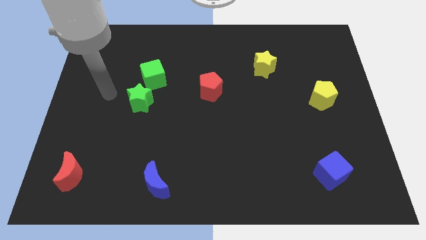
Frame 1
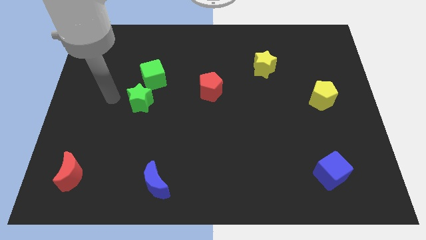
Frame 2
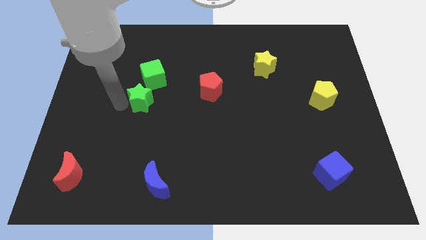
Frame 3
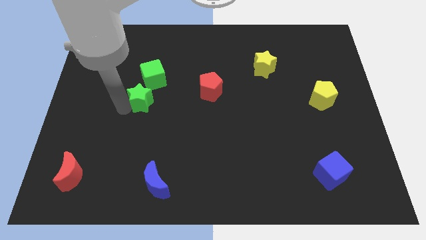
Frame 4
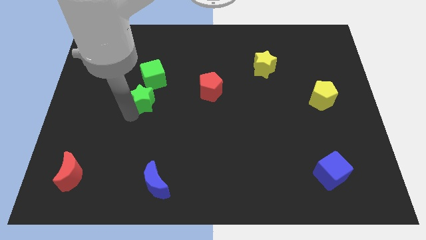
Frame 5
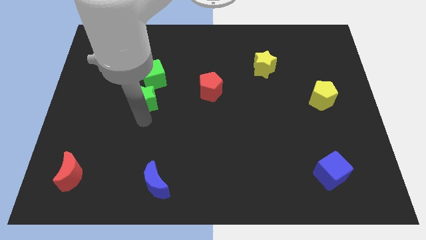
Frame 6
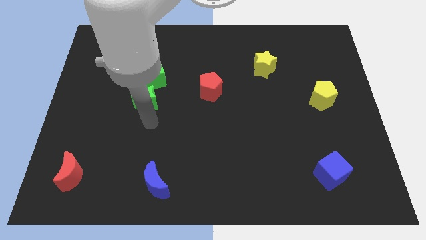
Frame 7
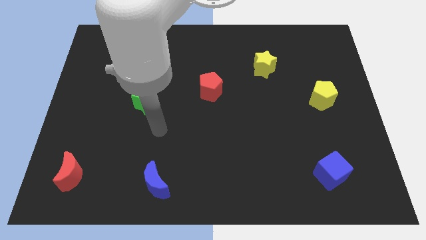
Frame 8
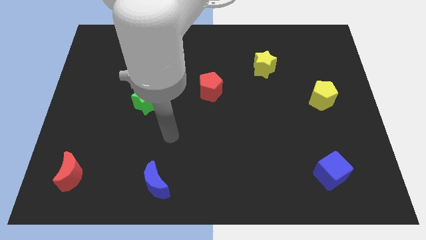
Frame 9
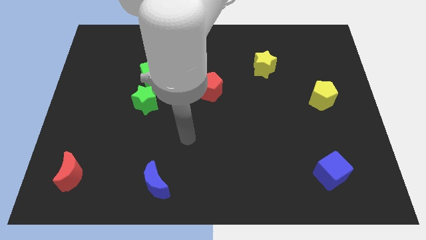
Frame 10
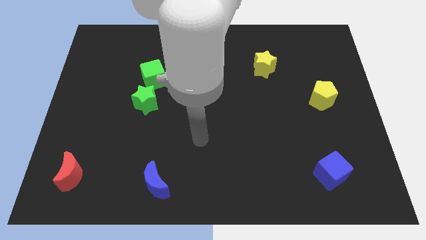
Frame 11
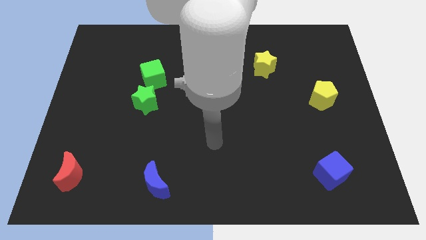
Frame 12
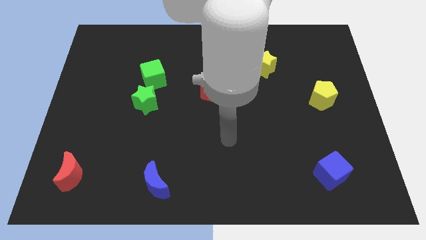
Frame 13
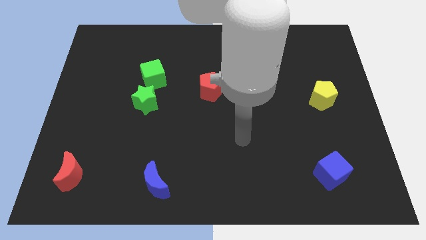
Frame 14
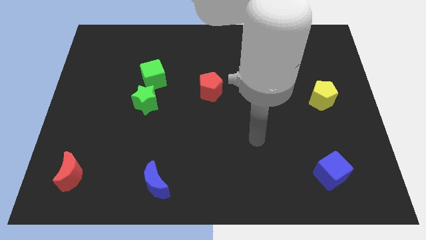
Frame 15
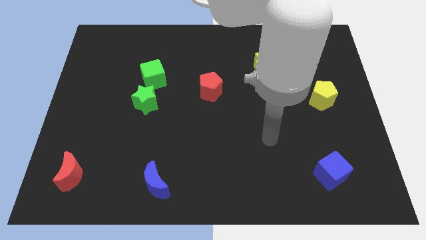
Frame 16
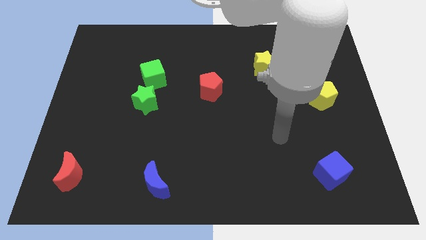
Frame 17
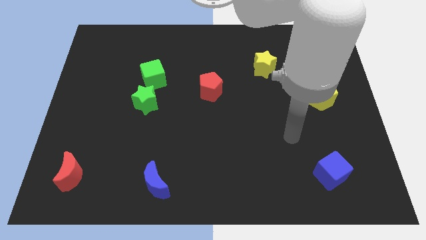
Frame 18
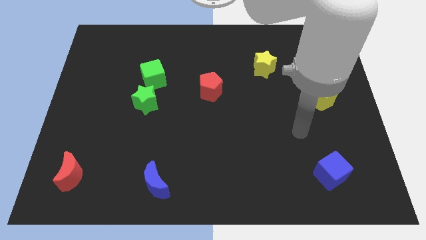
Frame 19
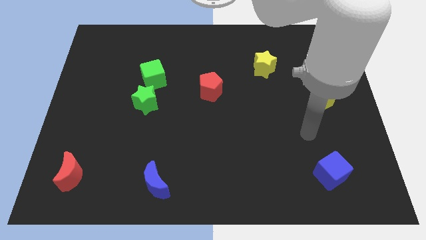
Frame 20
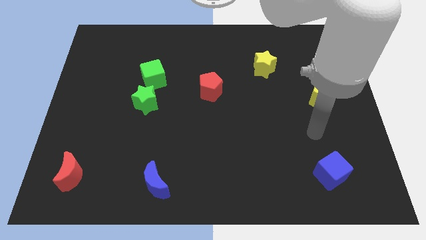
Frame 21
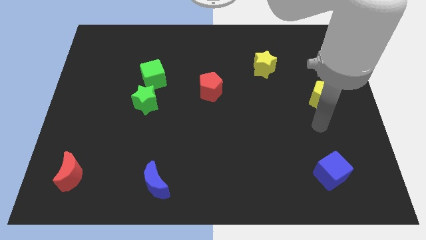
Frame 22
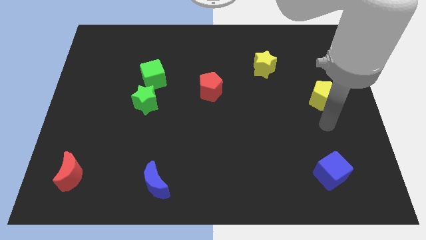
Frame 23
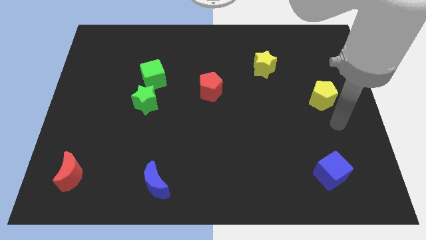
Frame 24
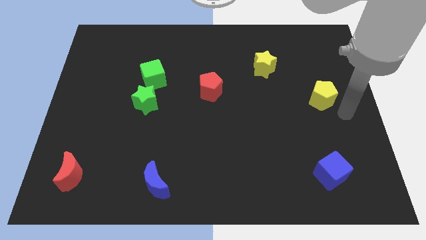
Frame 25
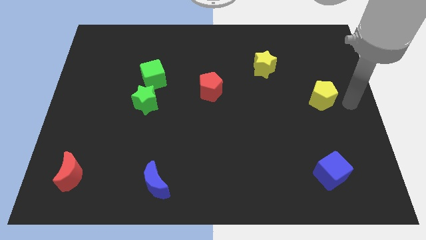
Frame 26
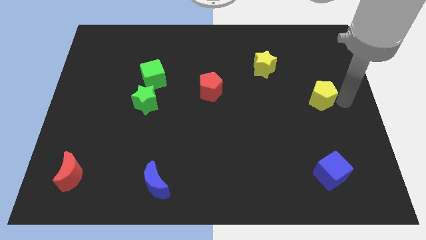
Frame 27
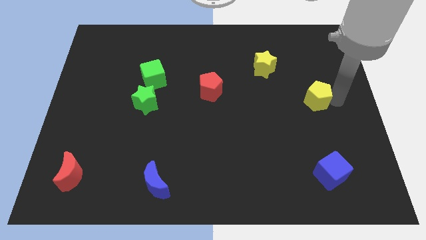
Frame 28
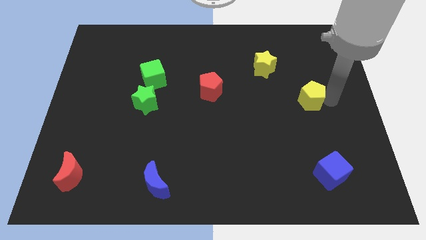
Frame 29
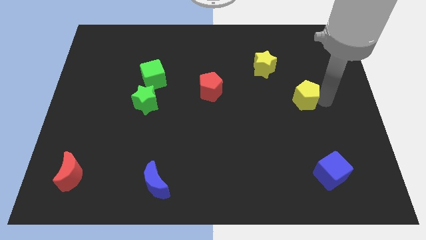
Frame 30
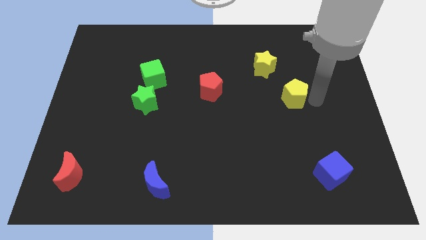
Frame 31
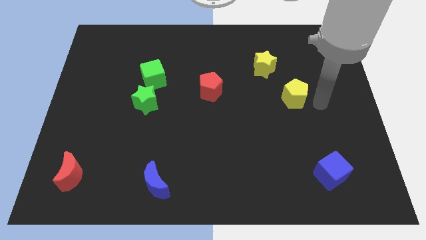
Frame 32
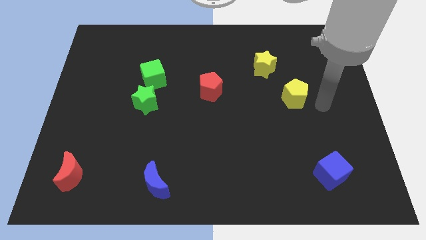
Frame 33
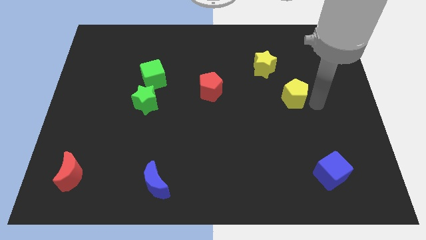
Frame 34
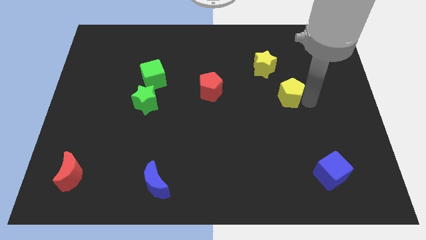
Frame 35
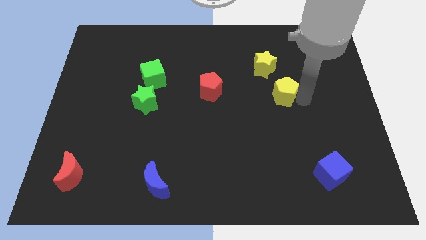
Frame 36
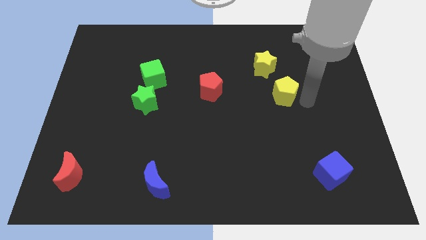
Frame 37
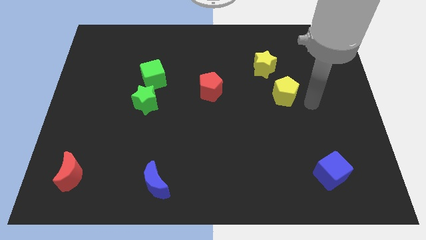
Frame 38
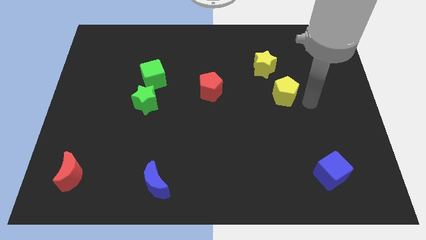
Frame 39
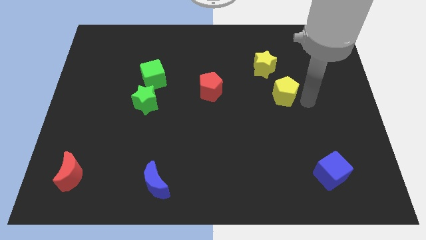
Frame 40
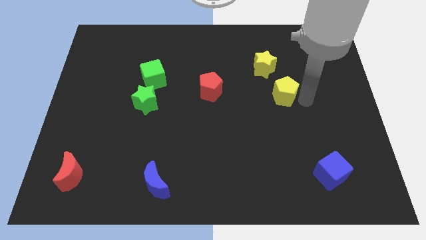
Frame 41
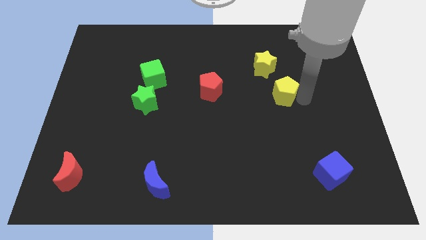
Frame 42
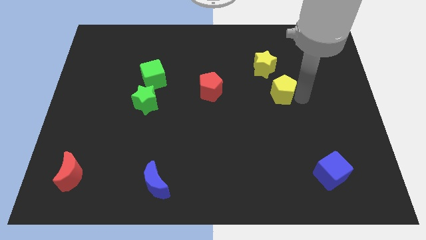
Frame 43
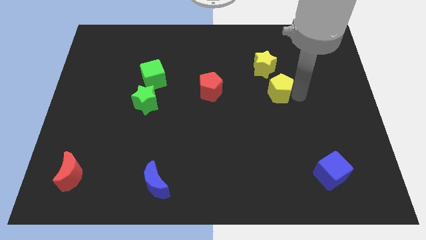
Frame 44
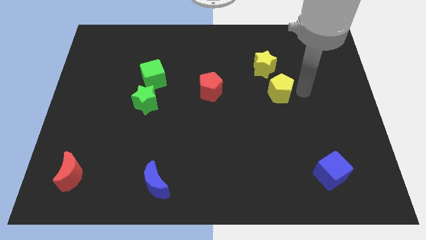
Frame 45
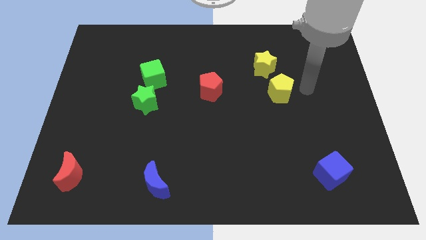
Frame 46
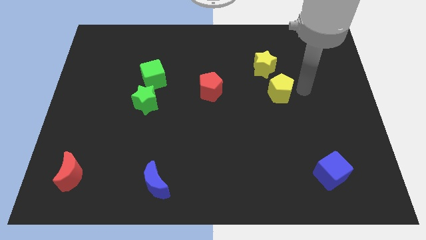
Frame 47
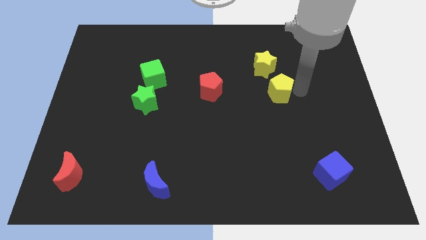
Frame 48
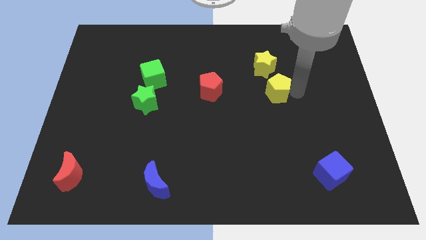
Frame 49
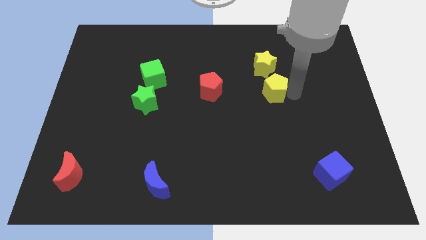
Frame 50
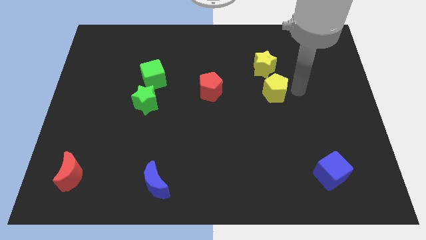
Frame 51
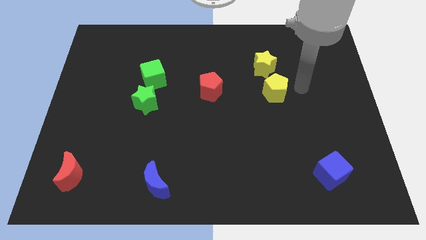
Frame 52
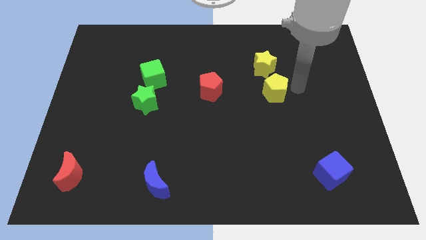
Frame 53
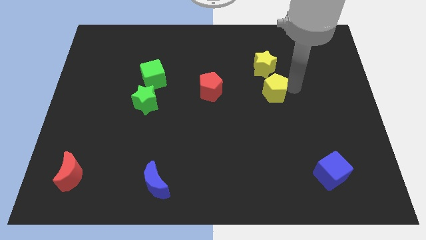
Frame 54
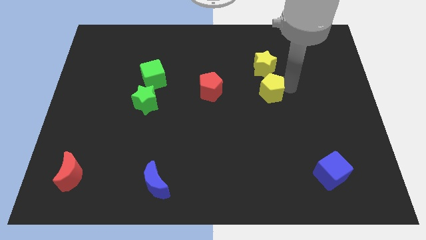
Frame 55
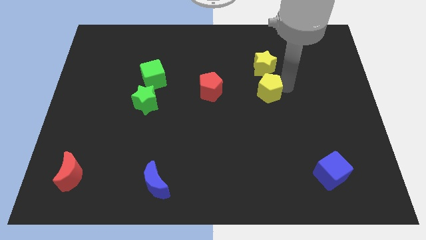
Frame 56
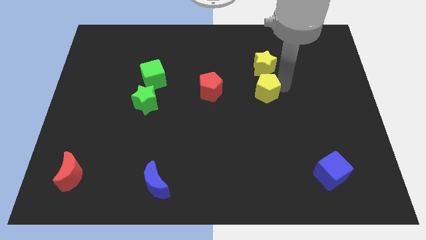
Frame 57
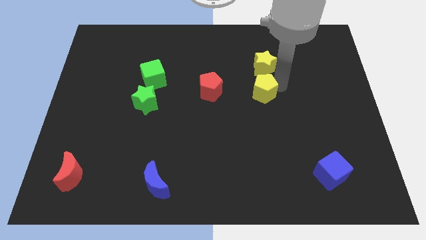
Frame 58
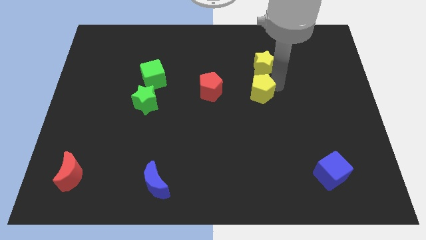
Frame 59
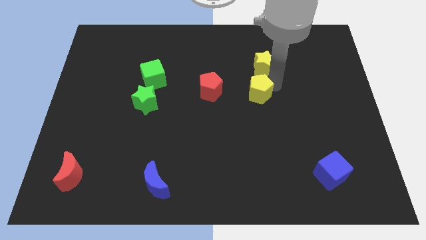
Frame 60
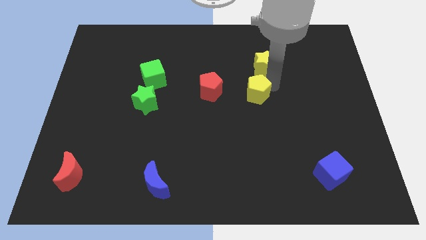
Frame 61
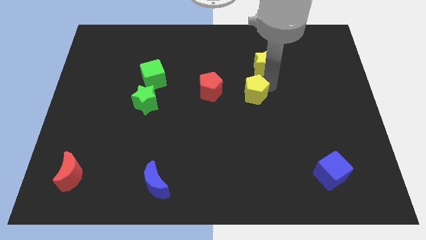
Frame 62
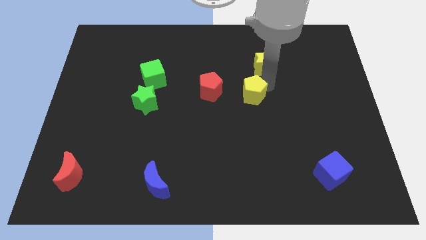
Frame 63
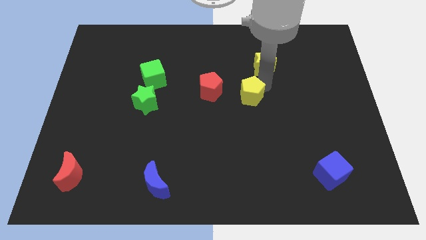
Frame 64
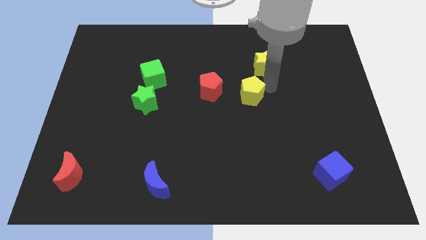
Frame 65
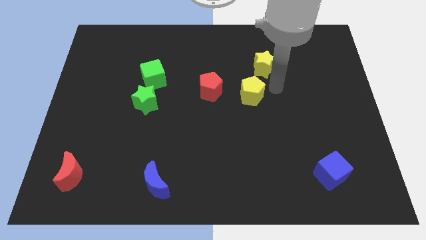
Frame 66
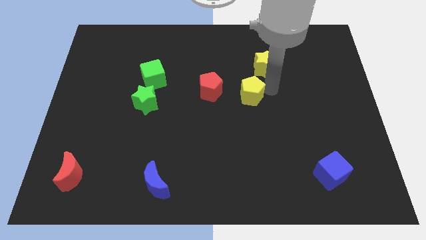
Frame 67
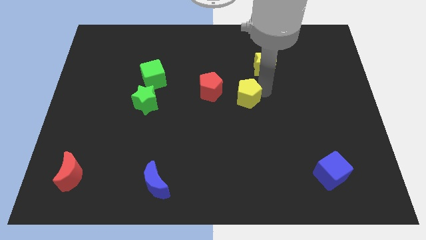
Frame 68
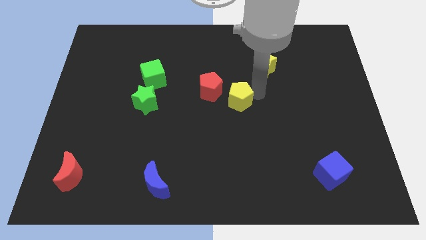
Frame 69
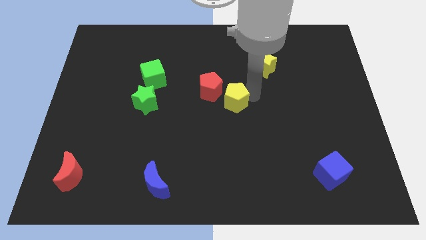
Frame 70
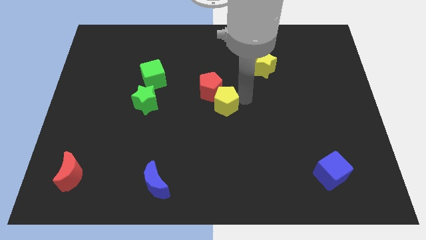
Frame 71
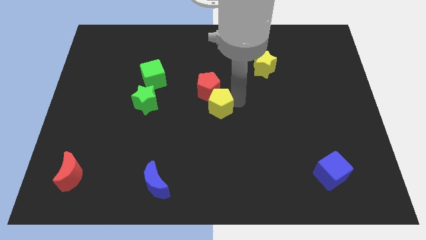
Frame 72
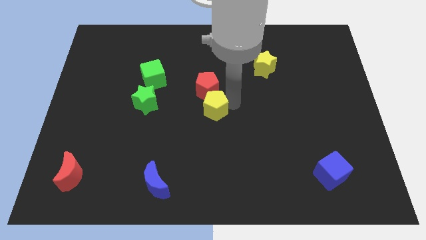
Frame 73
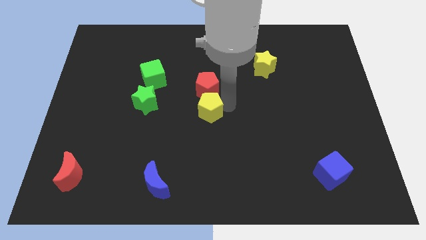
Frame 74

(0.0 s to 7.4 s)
put the yellow pentagon to the right of the green star

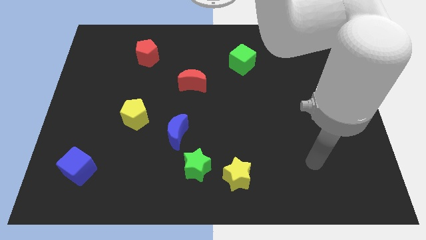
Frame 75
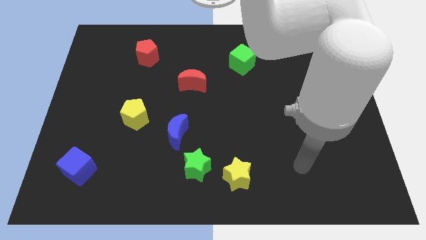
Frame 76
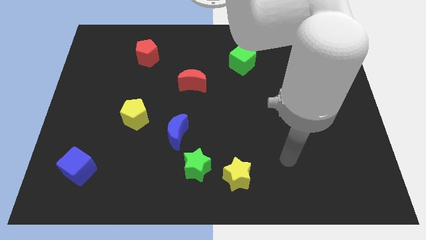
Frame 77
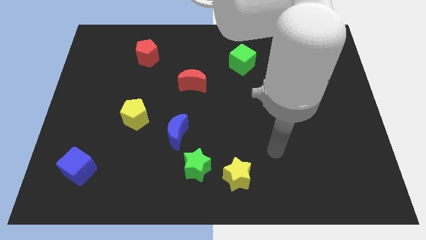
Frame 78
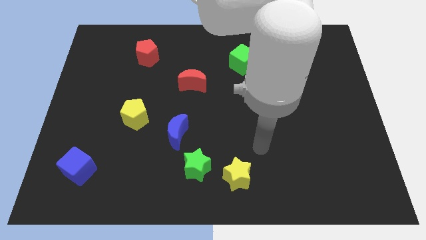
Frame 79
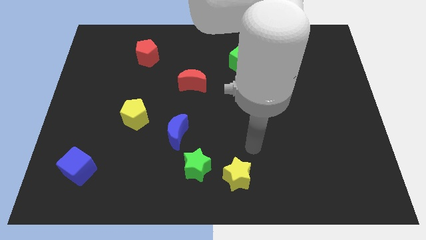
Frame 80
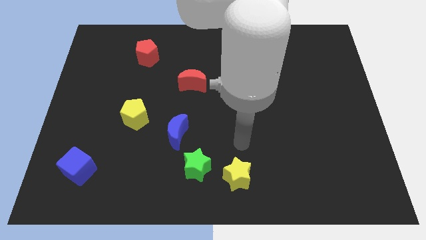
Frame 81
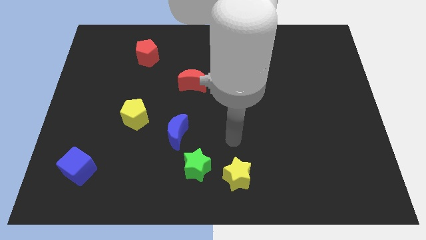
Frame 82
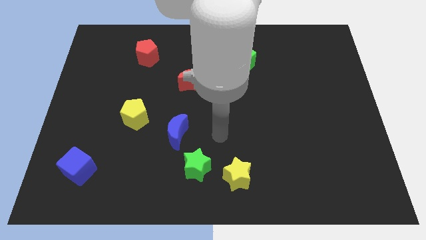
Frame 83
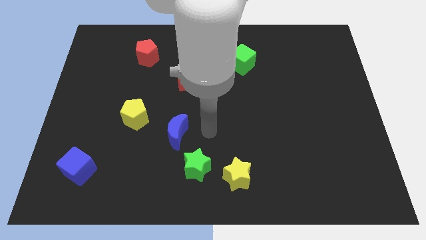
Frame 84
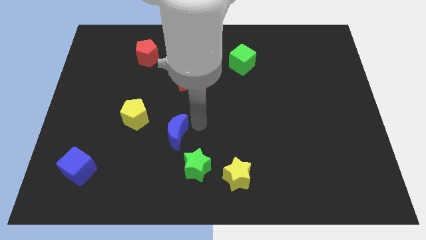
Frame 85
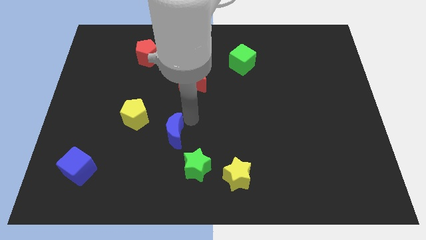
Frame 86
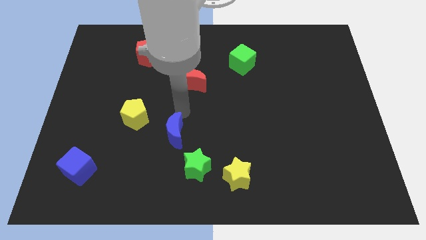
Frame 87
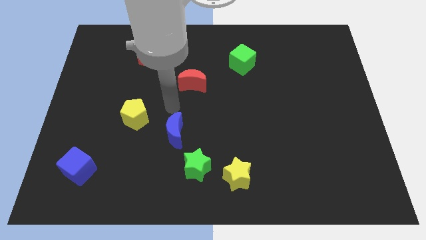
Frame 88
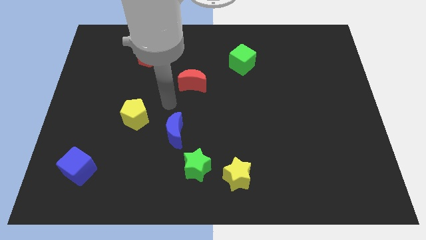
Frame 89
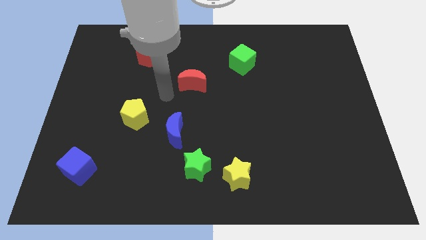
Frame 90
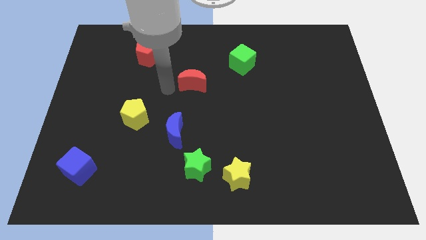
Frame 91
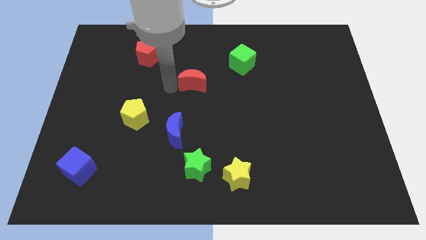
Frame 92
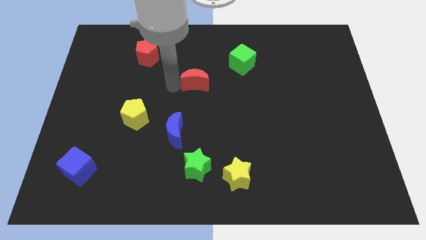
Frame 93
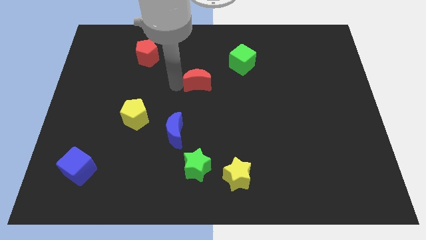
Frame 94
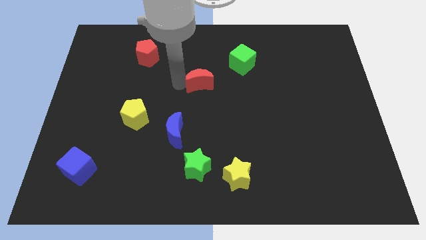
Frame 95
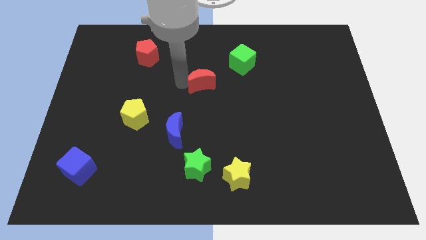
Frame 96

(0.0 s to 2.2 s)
push the red moon to the bottom left of the green cube
